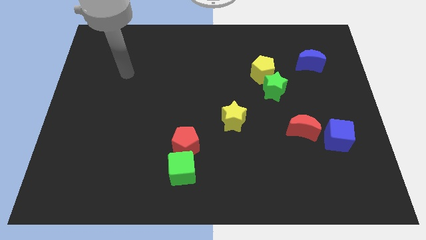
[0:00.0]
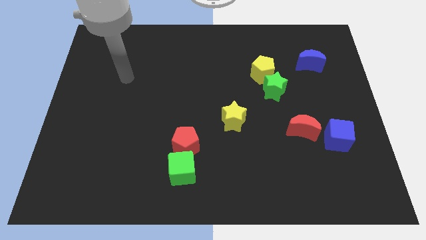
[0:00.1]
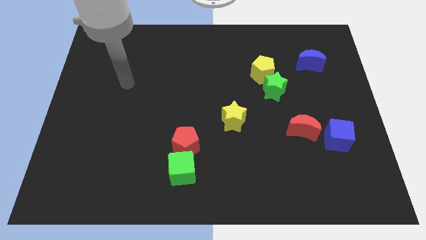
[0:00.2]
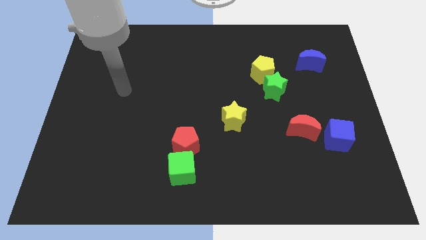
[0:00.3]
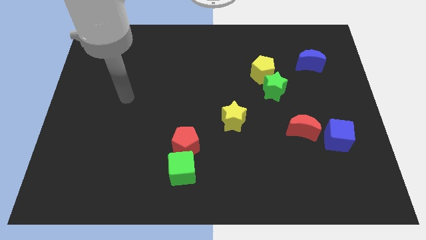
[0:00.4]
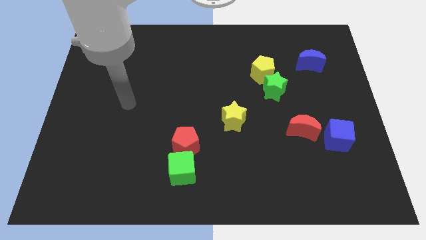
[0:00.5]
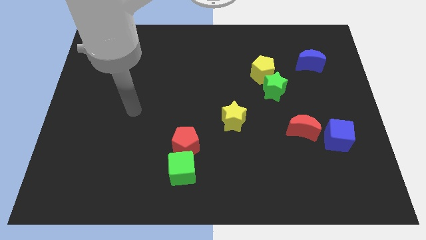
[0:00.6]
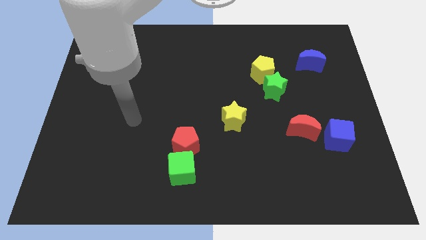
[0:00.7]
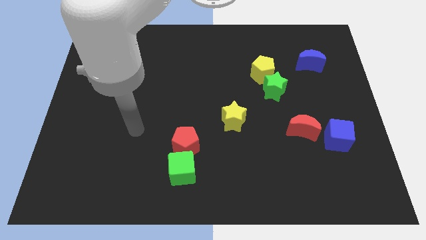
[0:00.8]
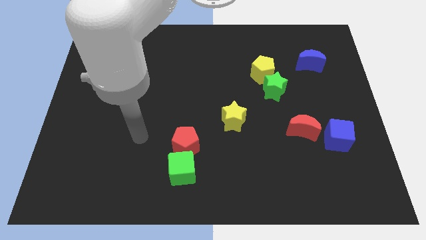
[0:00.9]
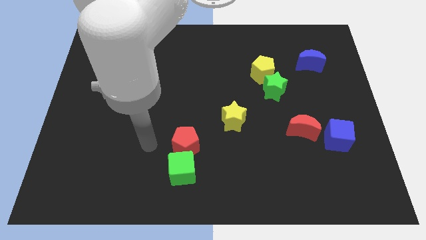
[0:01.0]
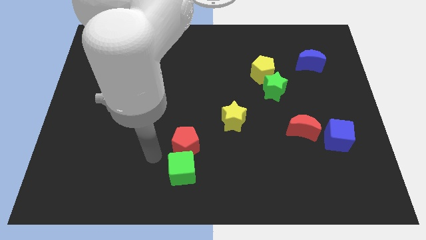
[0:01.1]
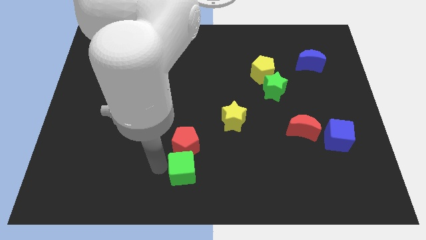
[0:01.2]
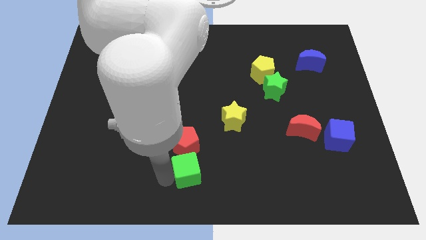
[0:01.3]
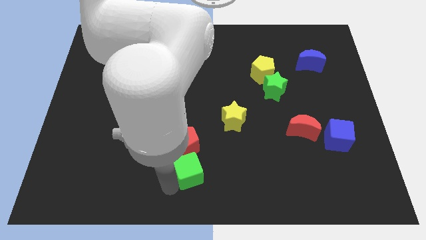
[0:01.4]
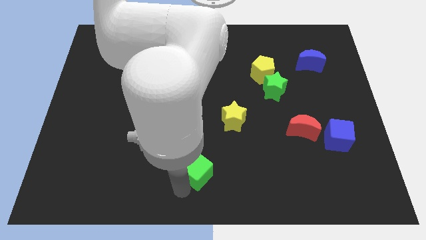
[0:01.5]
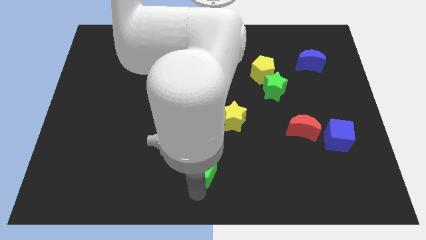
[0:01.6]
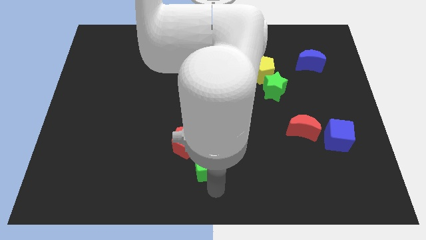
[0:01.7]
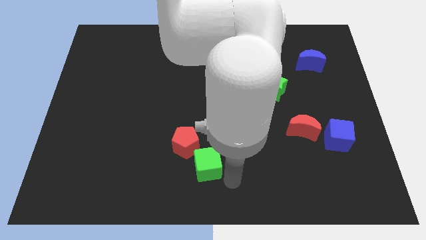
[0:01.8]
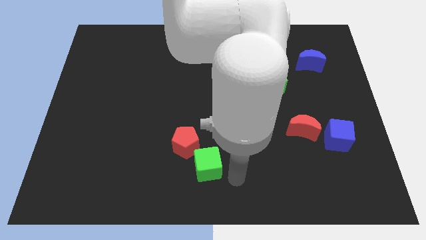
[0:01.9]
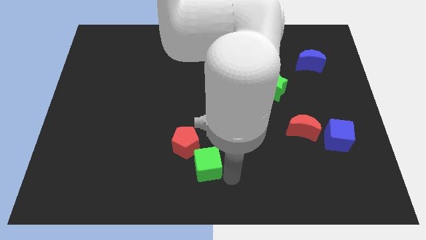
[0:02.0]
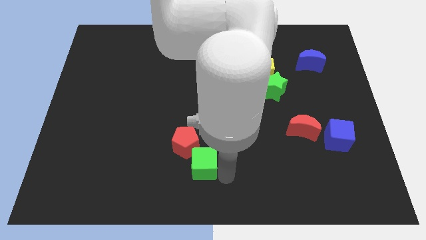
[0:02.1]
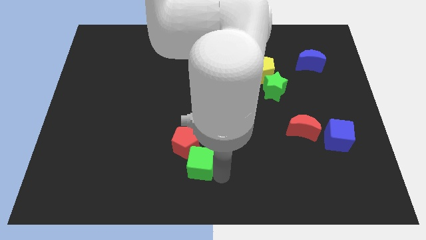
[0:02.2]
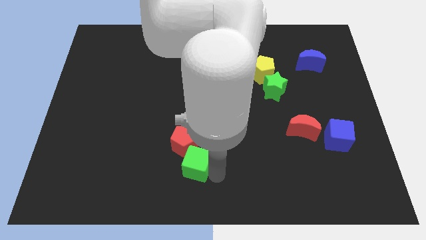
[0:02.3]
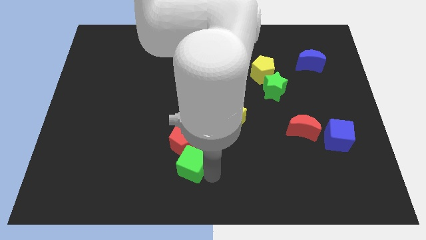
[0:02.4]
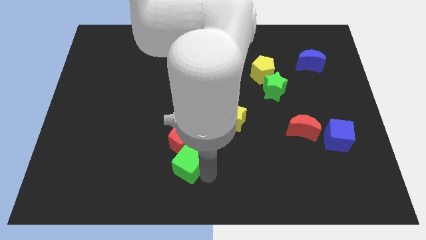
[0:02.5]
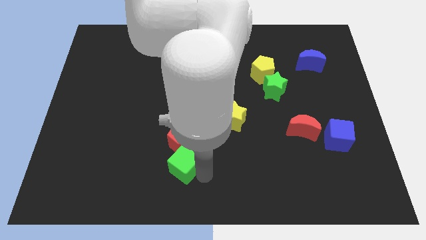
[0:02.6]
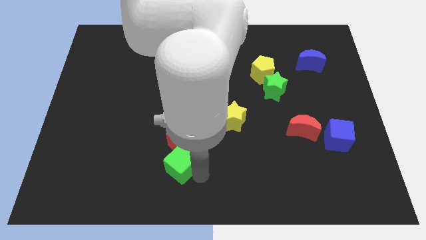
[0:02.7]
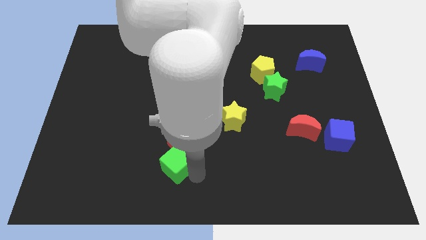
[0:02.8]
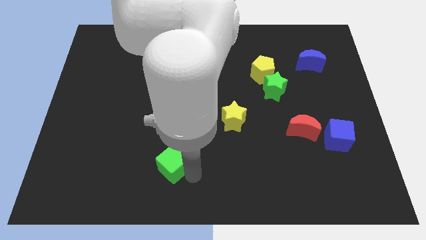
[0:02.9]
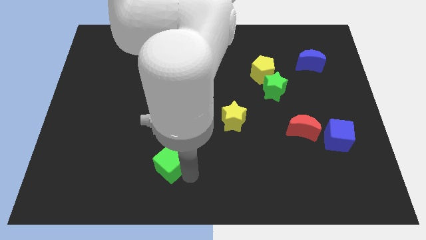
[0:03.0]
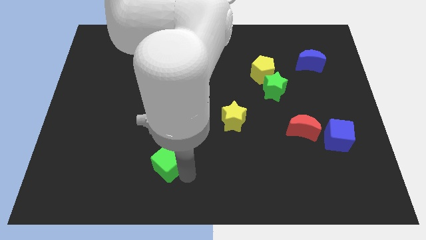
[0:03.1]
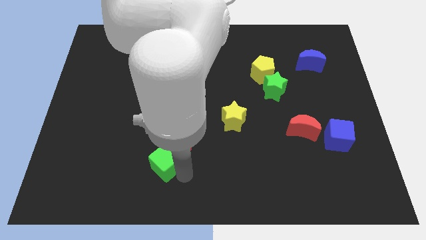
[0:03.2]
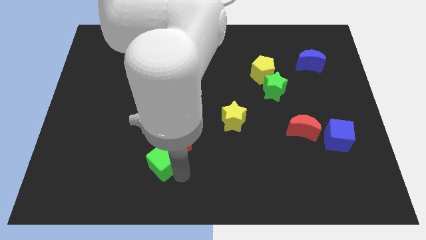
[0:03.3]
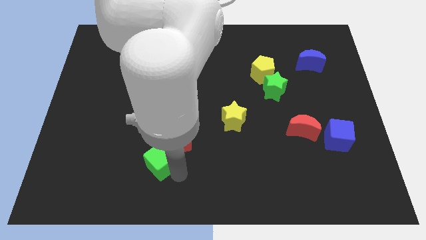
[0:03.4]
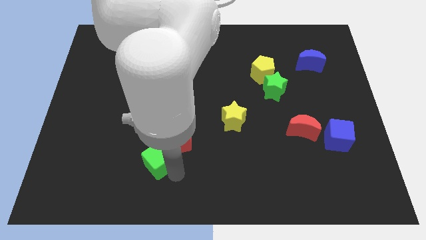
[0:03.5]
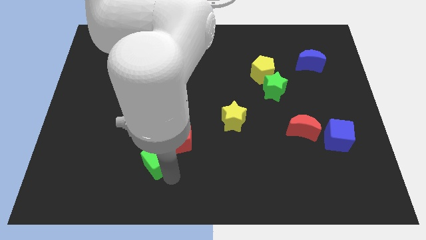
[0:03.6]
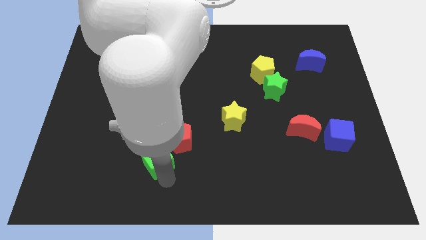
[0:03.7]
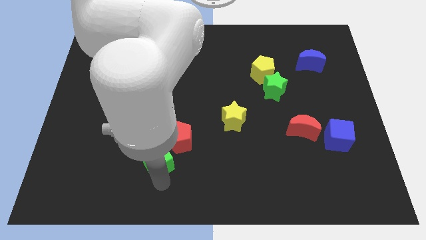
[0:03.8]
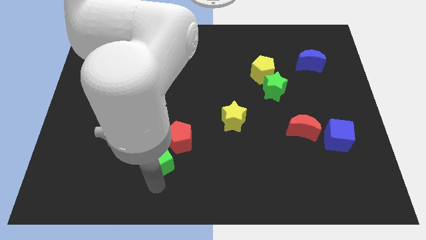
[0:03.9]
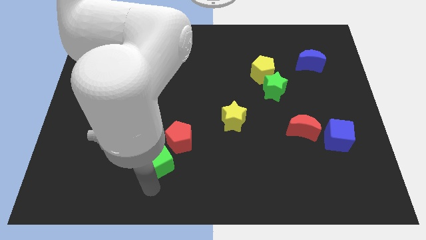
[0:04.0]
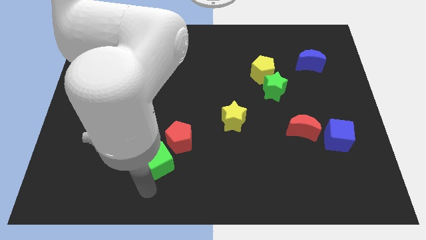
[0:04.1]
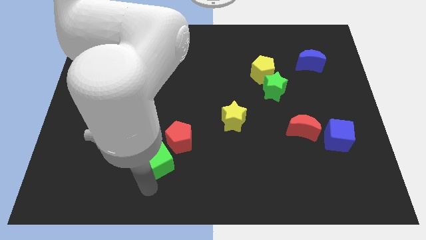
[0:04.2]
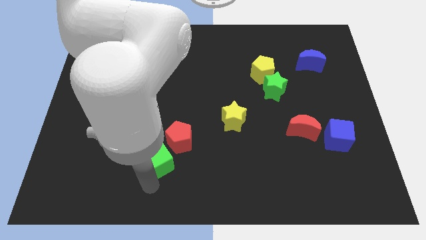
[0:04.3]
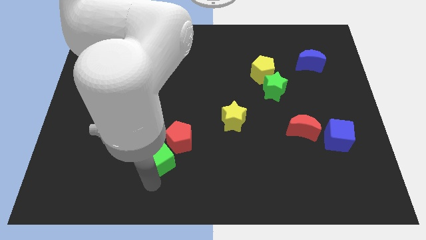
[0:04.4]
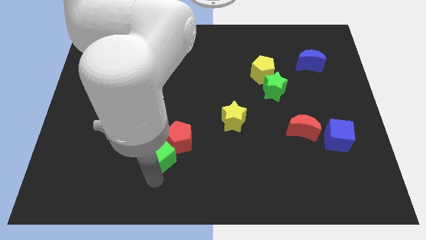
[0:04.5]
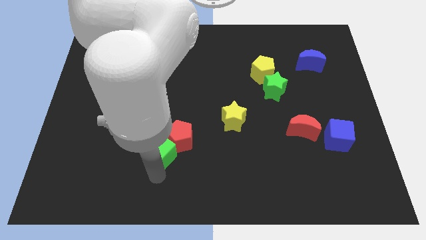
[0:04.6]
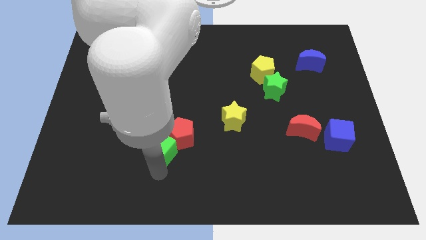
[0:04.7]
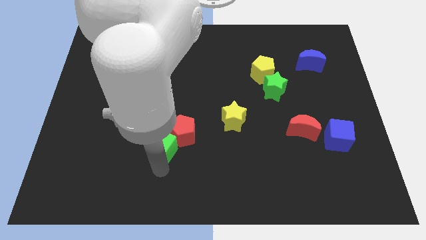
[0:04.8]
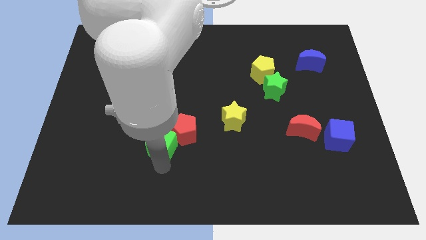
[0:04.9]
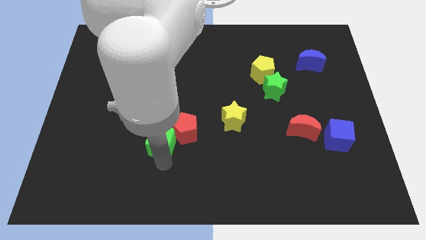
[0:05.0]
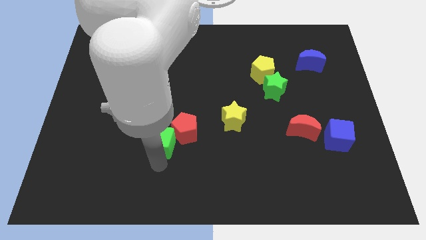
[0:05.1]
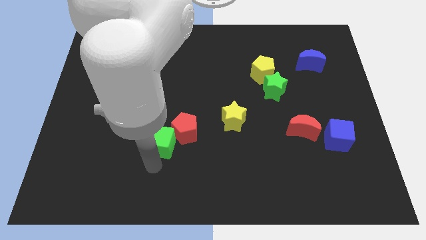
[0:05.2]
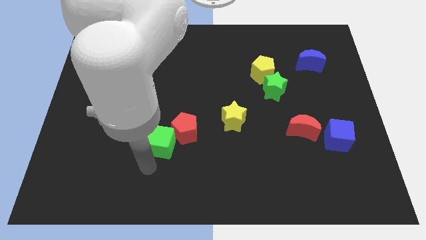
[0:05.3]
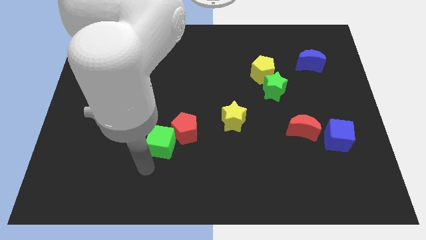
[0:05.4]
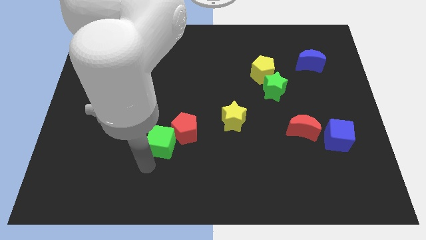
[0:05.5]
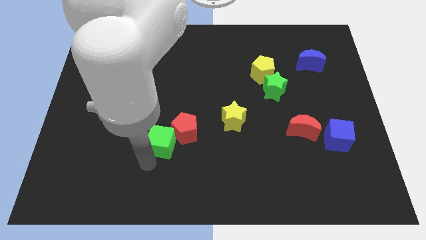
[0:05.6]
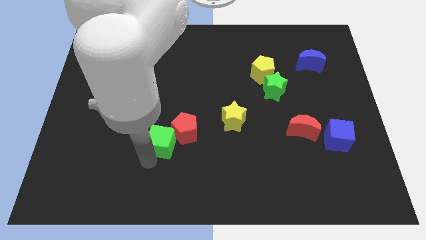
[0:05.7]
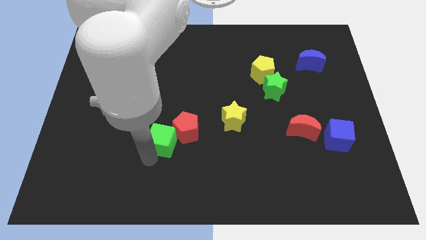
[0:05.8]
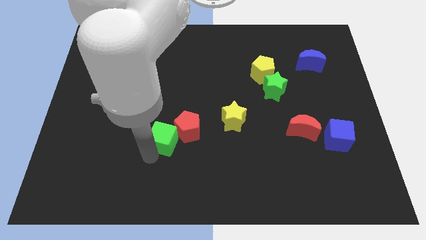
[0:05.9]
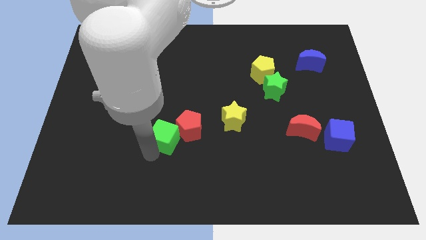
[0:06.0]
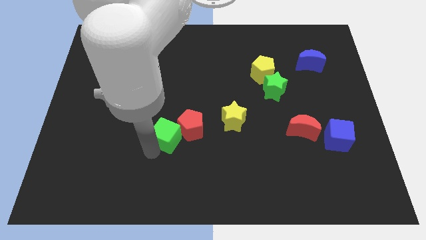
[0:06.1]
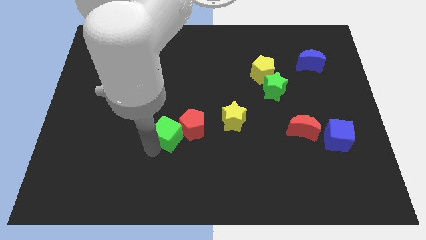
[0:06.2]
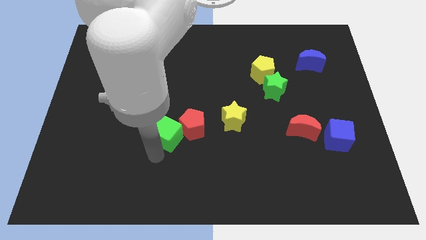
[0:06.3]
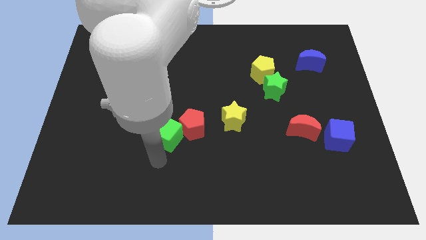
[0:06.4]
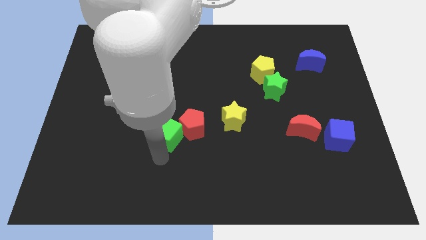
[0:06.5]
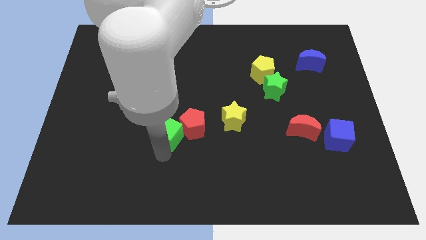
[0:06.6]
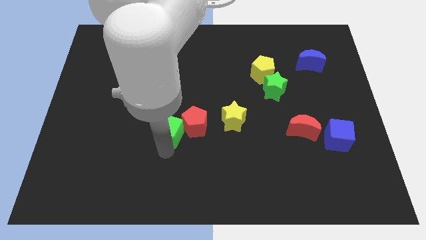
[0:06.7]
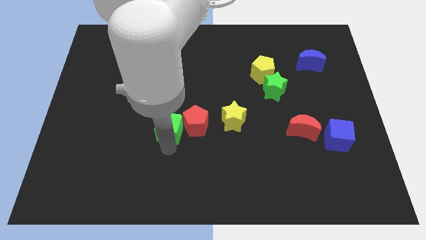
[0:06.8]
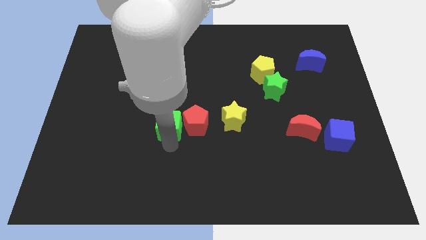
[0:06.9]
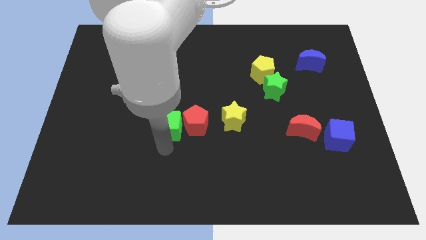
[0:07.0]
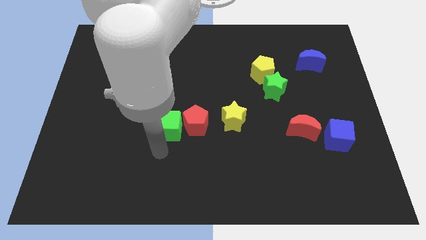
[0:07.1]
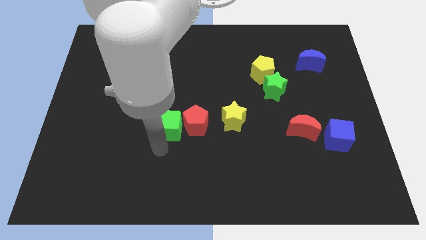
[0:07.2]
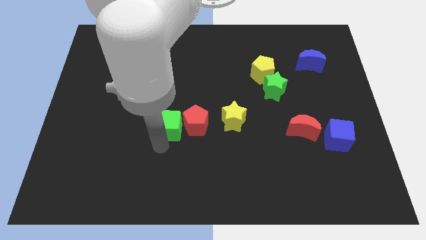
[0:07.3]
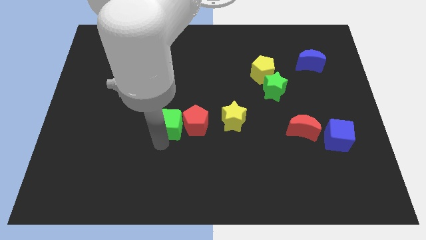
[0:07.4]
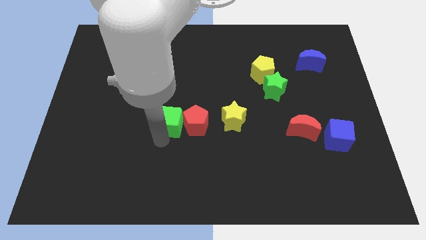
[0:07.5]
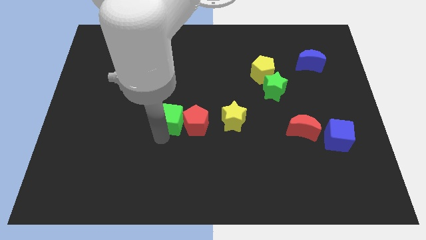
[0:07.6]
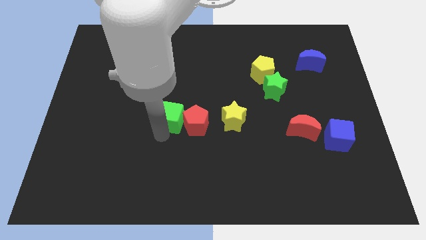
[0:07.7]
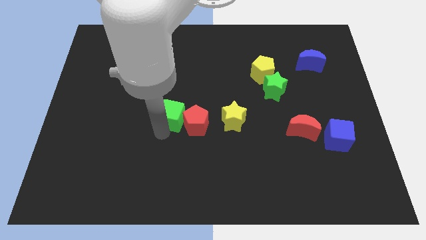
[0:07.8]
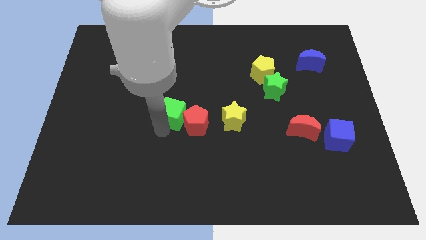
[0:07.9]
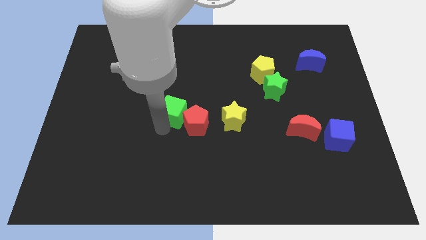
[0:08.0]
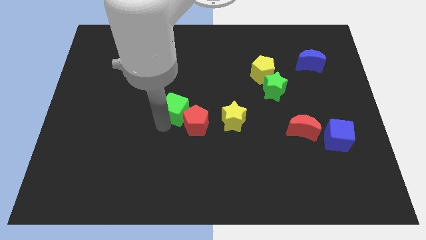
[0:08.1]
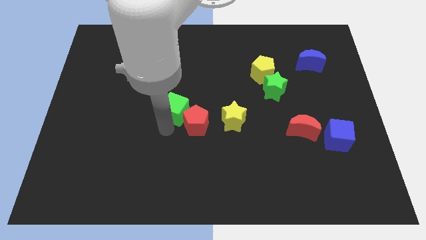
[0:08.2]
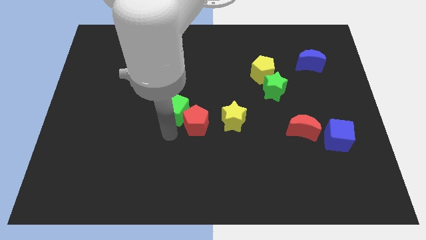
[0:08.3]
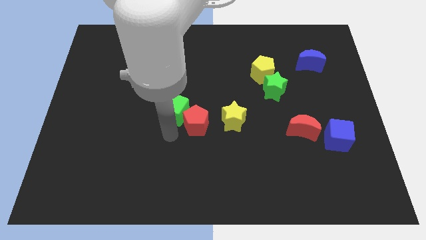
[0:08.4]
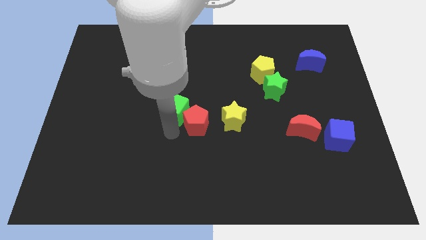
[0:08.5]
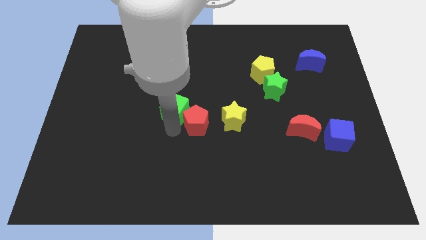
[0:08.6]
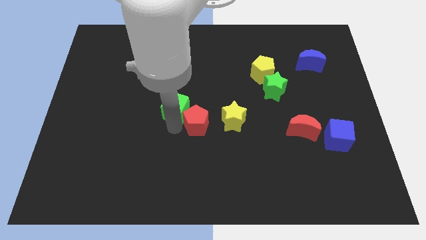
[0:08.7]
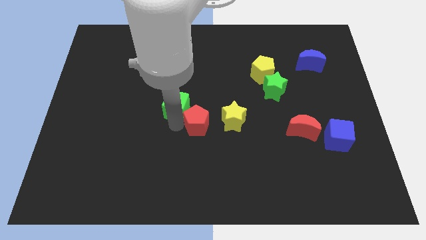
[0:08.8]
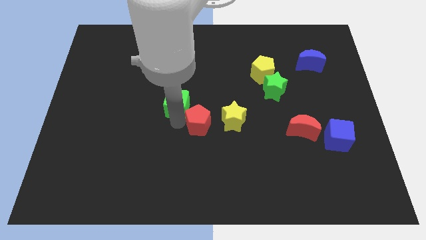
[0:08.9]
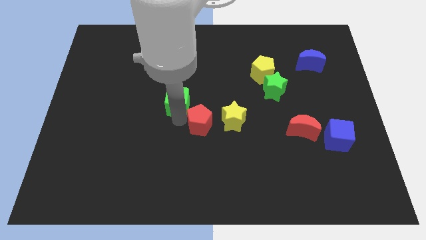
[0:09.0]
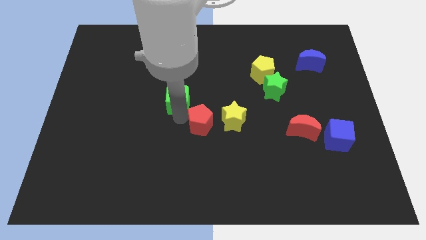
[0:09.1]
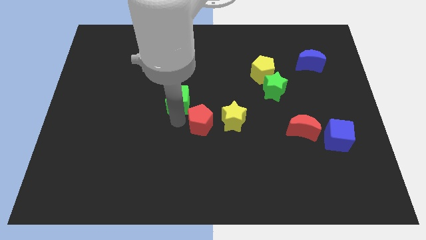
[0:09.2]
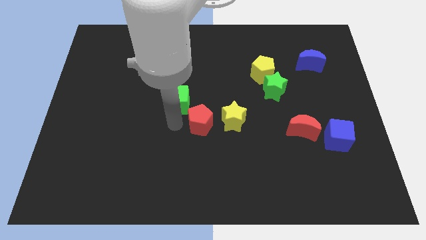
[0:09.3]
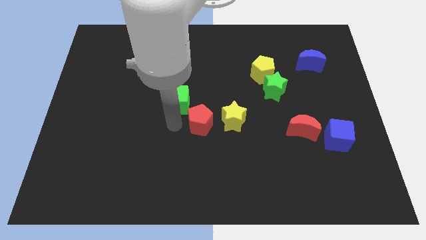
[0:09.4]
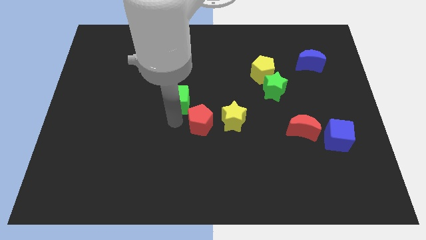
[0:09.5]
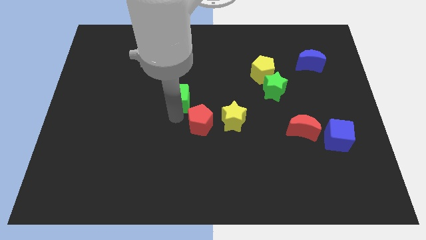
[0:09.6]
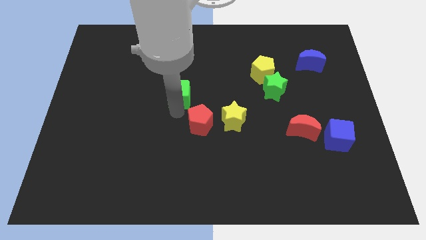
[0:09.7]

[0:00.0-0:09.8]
move the green cube upwards
